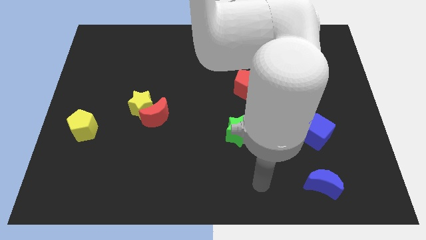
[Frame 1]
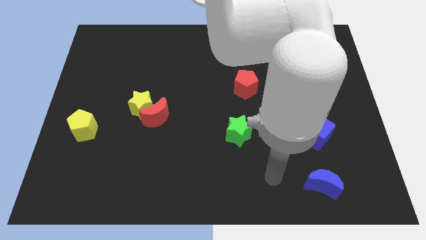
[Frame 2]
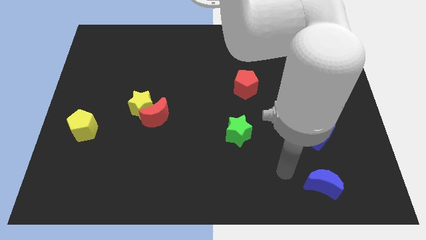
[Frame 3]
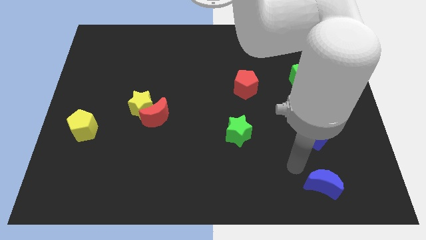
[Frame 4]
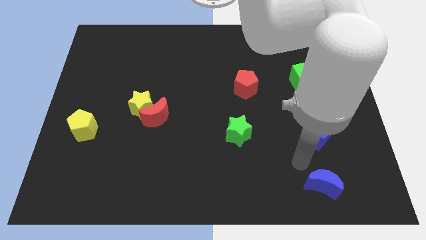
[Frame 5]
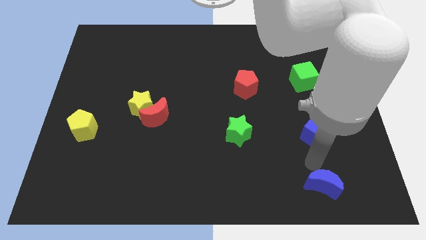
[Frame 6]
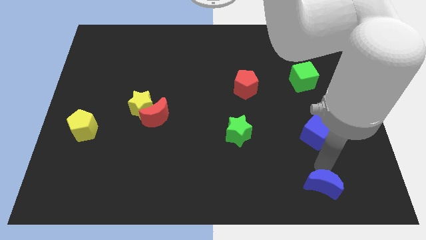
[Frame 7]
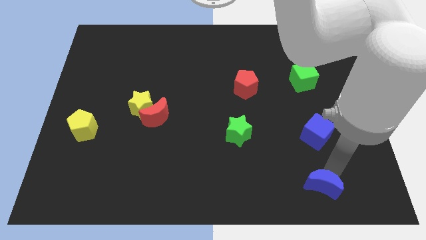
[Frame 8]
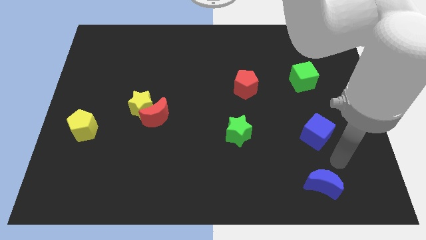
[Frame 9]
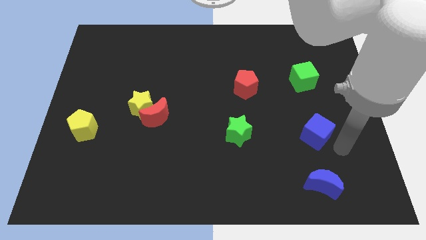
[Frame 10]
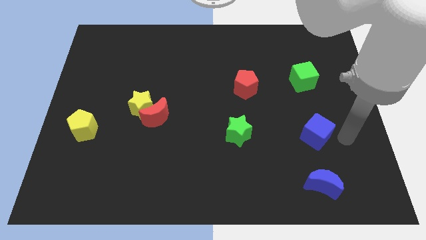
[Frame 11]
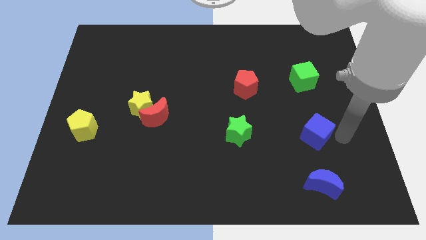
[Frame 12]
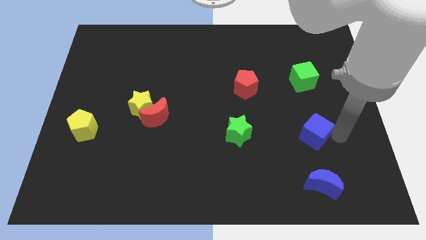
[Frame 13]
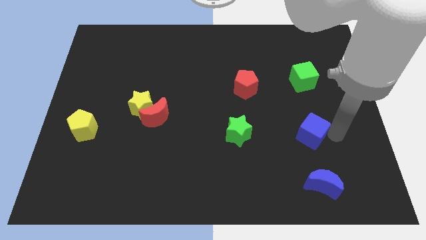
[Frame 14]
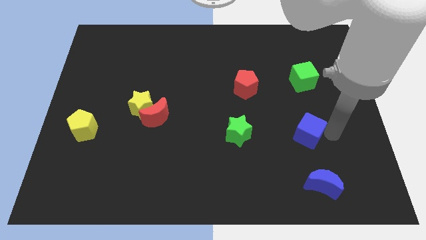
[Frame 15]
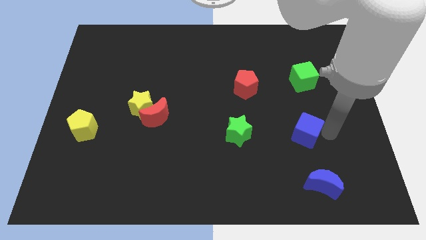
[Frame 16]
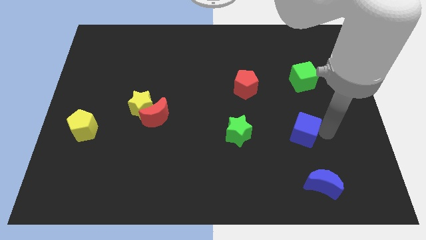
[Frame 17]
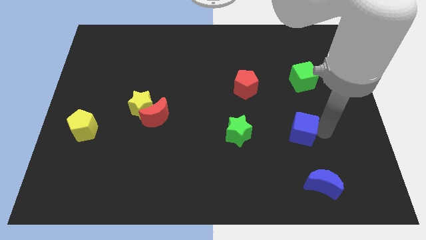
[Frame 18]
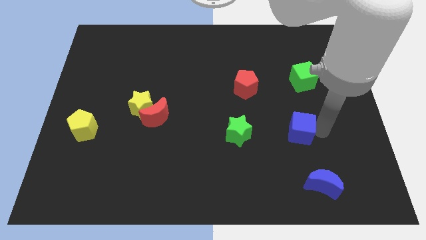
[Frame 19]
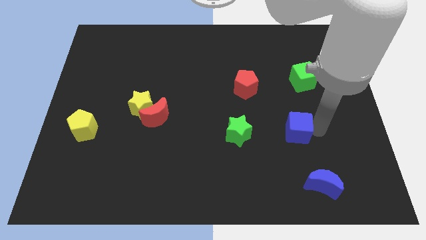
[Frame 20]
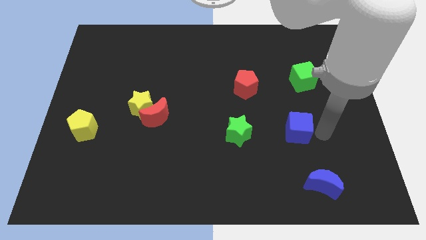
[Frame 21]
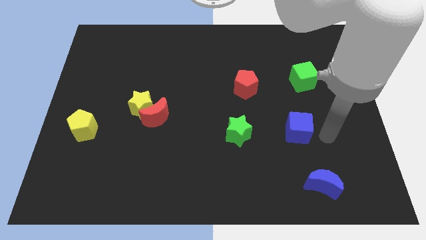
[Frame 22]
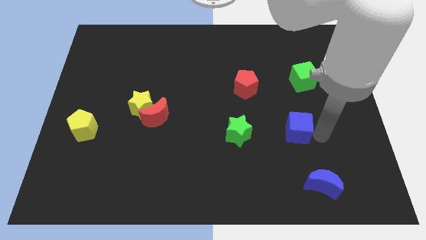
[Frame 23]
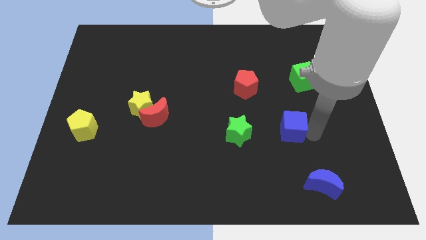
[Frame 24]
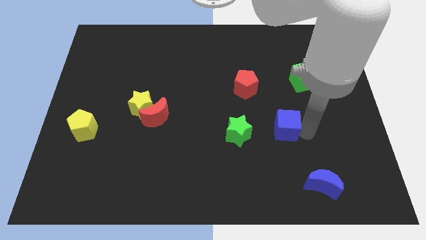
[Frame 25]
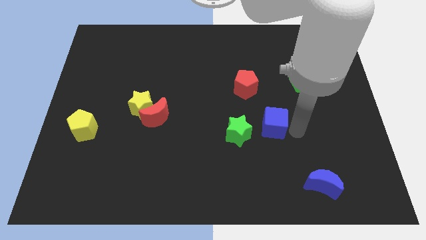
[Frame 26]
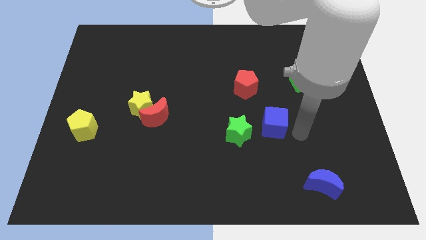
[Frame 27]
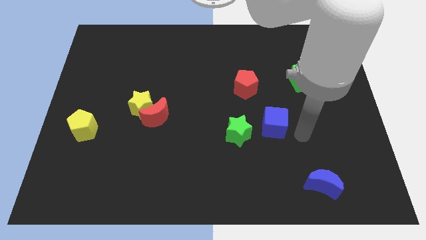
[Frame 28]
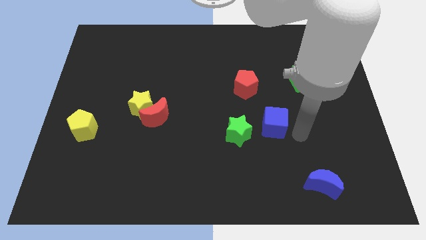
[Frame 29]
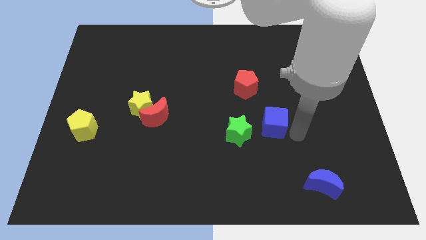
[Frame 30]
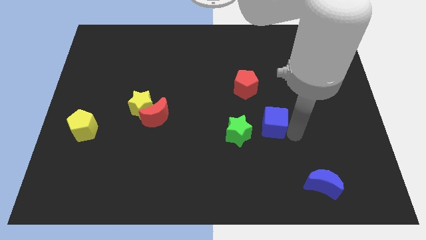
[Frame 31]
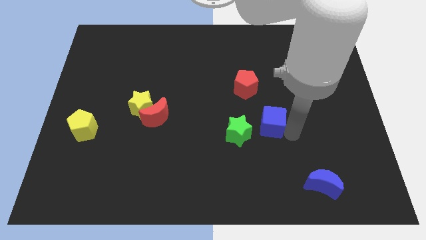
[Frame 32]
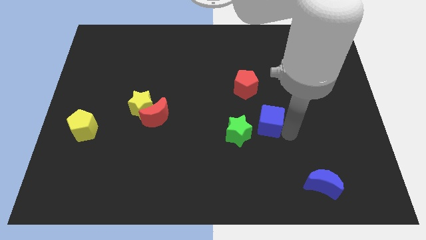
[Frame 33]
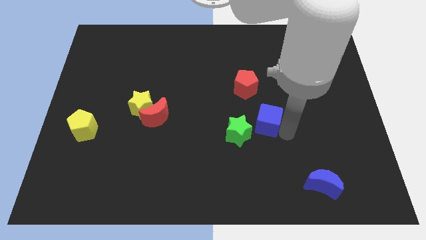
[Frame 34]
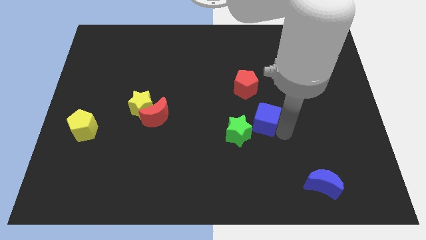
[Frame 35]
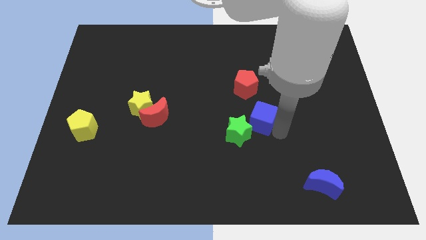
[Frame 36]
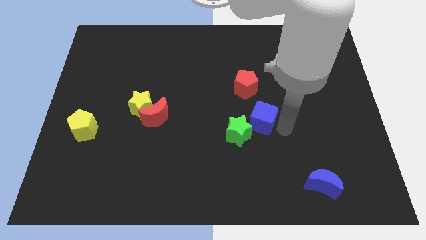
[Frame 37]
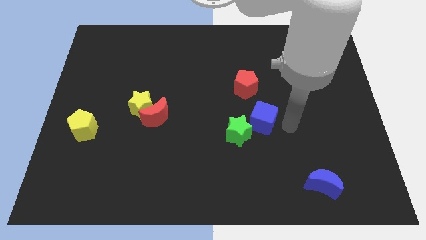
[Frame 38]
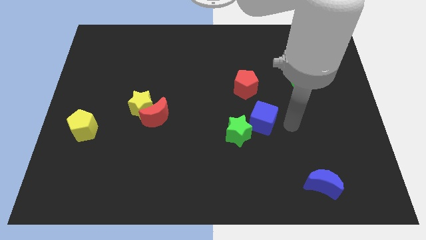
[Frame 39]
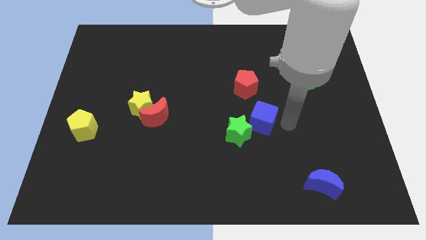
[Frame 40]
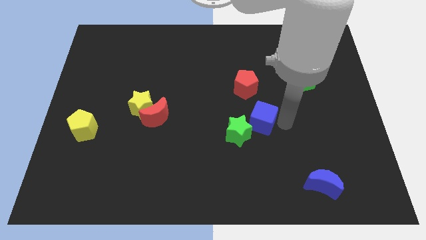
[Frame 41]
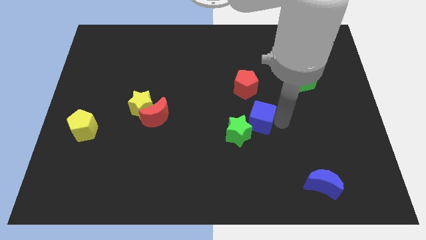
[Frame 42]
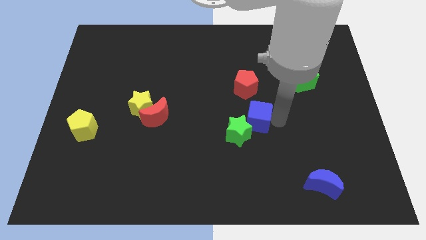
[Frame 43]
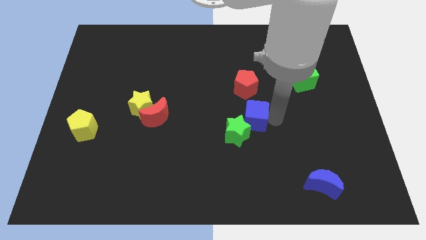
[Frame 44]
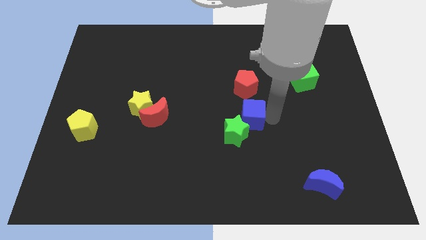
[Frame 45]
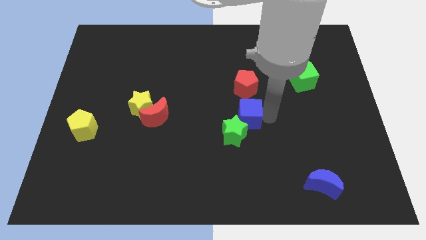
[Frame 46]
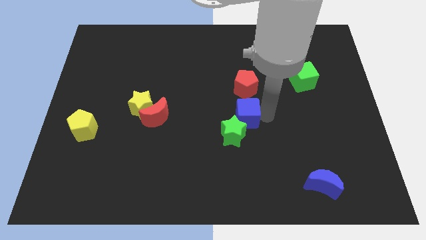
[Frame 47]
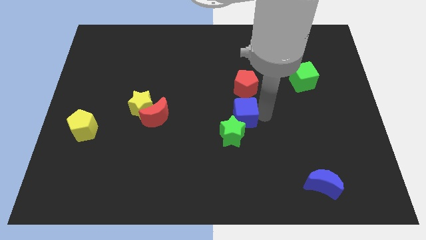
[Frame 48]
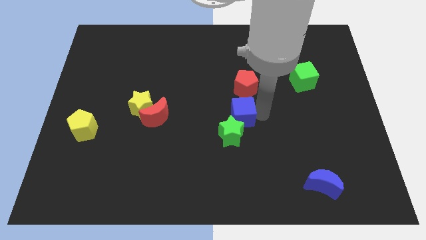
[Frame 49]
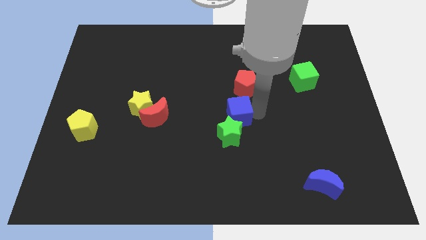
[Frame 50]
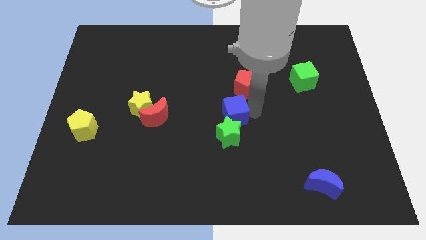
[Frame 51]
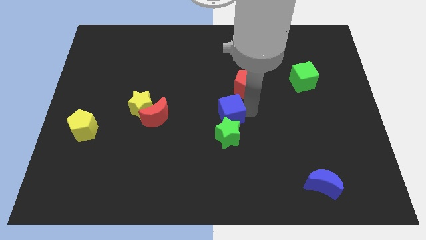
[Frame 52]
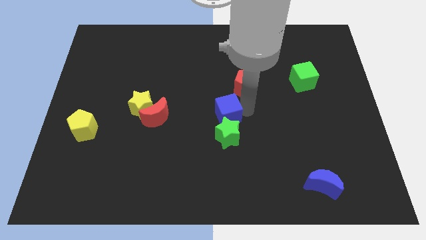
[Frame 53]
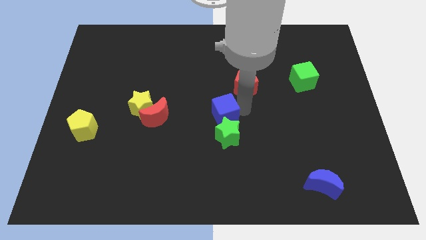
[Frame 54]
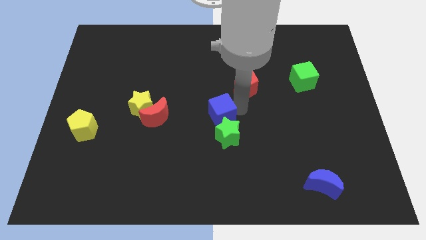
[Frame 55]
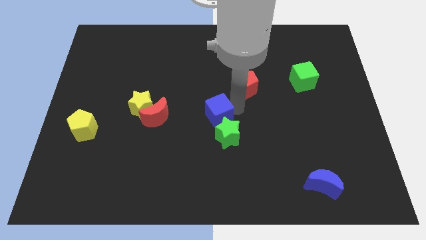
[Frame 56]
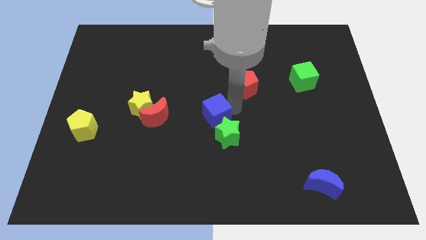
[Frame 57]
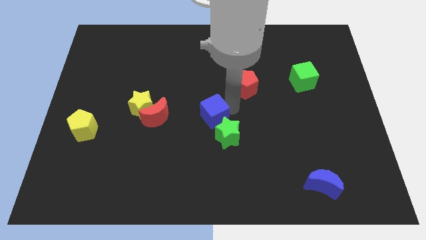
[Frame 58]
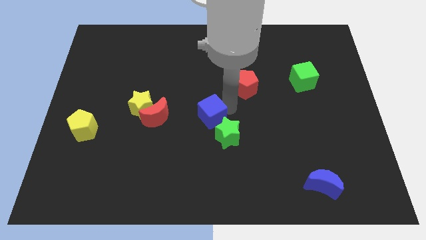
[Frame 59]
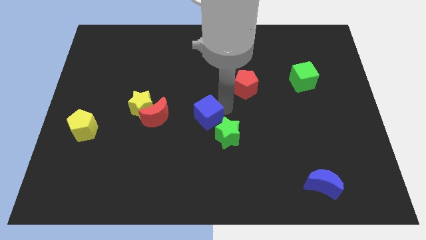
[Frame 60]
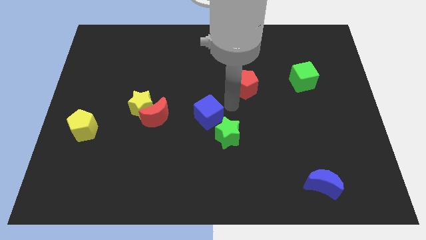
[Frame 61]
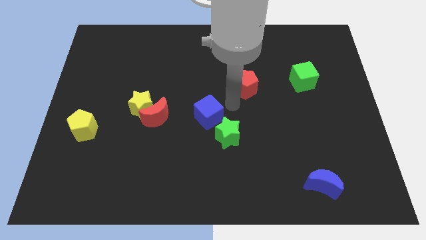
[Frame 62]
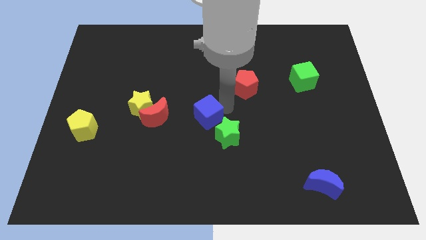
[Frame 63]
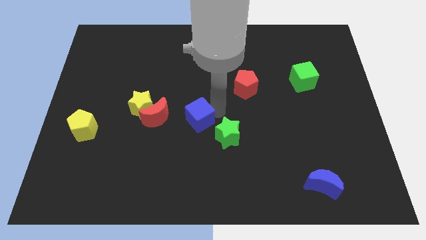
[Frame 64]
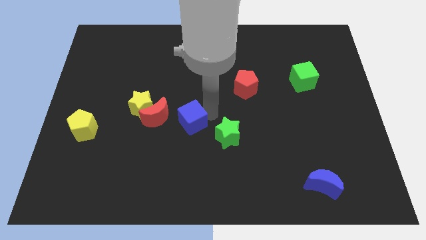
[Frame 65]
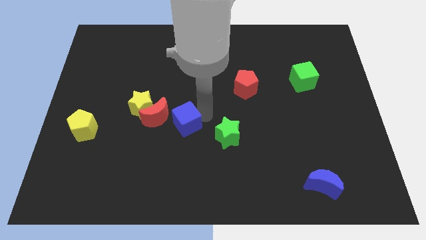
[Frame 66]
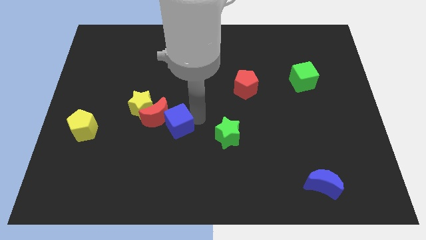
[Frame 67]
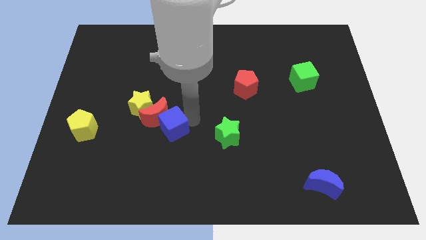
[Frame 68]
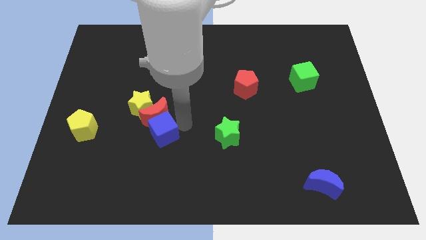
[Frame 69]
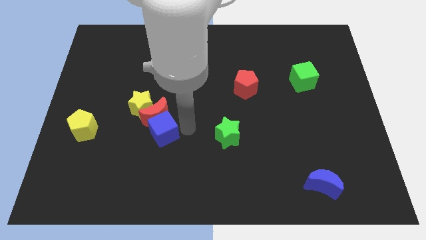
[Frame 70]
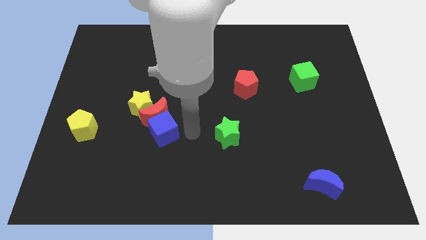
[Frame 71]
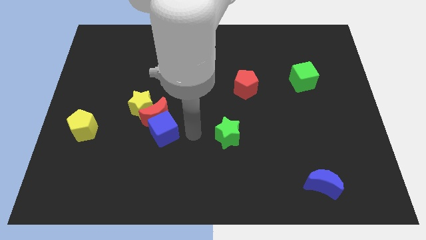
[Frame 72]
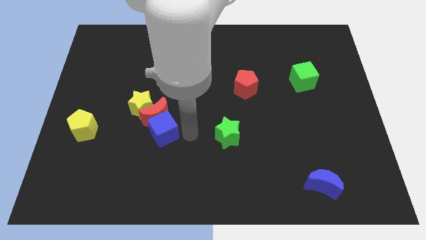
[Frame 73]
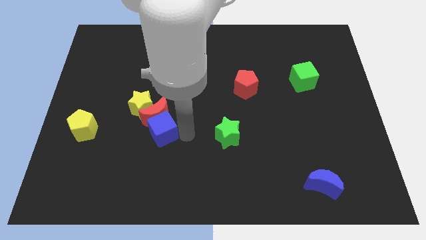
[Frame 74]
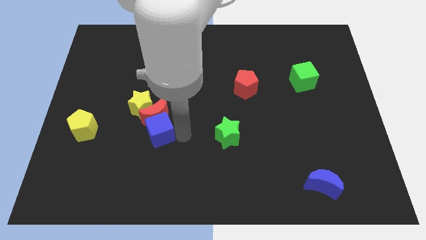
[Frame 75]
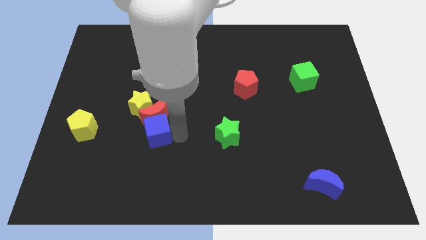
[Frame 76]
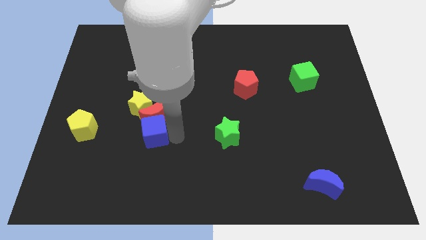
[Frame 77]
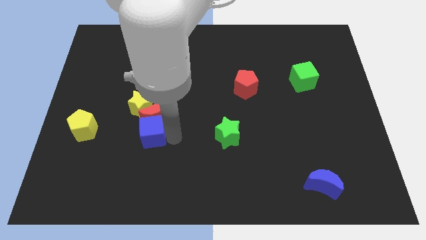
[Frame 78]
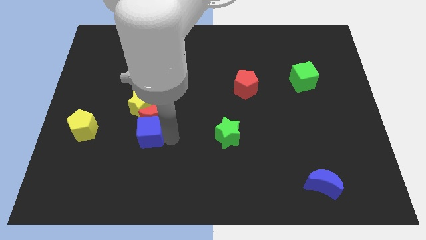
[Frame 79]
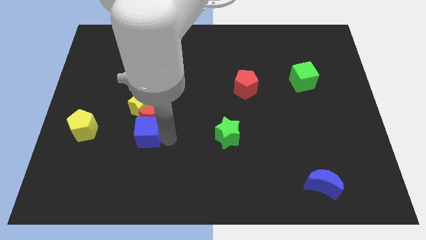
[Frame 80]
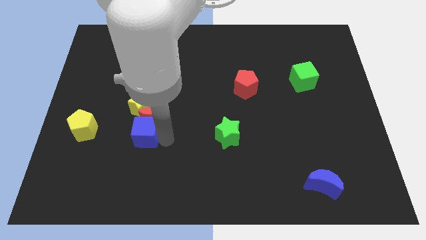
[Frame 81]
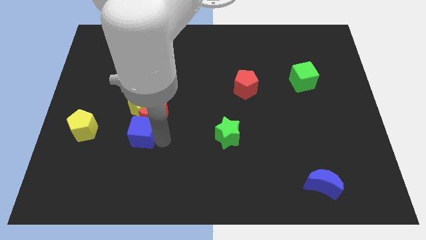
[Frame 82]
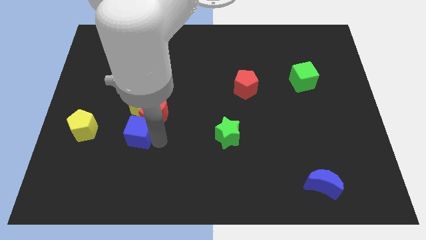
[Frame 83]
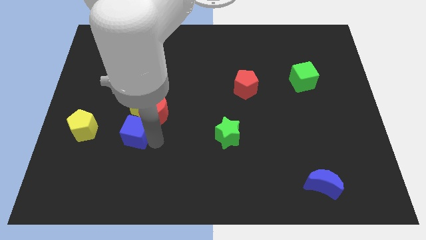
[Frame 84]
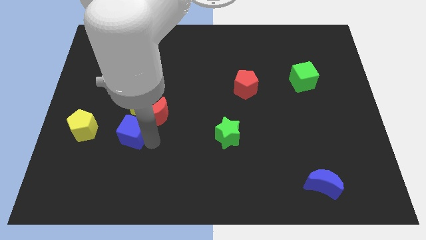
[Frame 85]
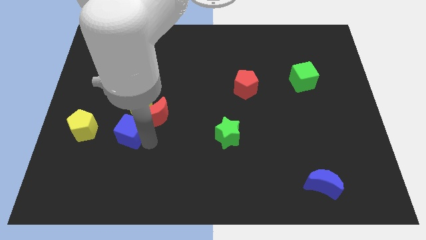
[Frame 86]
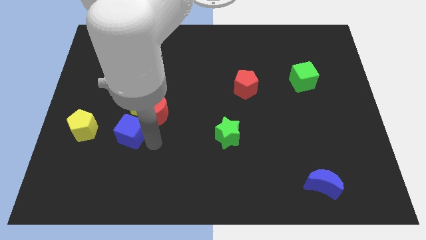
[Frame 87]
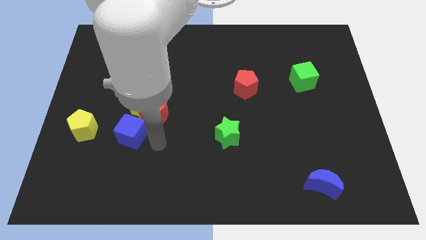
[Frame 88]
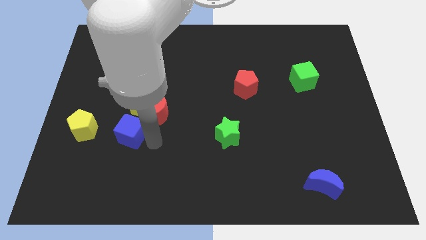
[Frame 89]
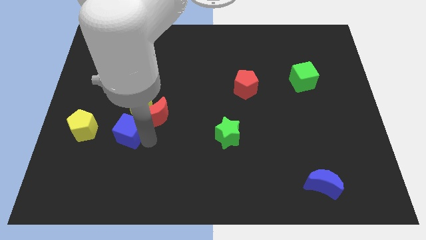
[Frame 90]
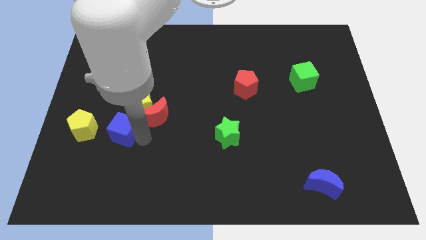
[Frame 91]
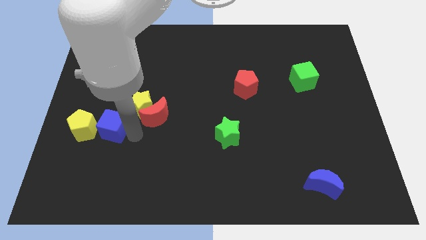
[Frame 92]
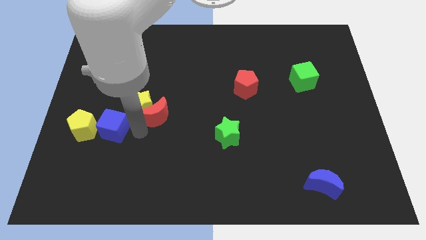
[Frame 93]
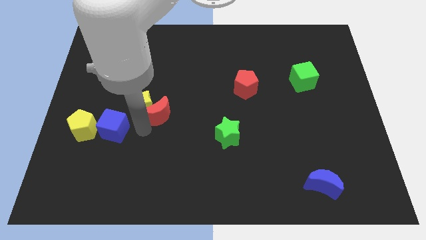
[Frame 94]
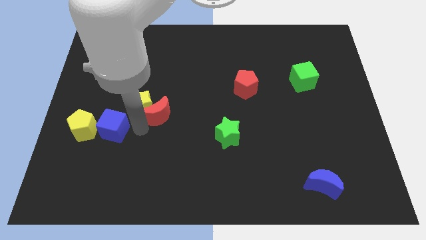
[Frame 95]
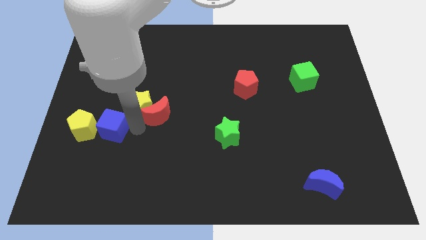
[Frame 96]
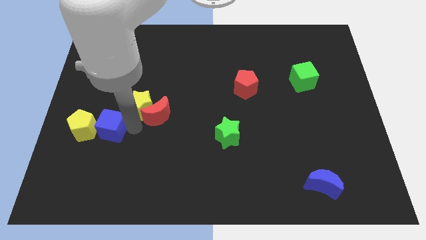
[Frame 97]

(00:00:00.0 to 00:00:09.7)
move the blue cube close to the yellow pentagon
